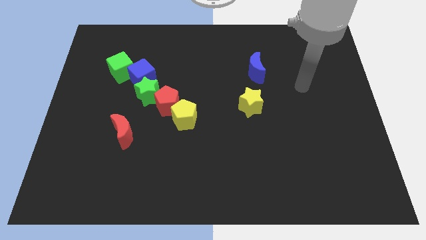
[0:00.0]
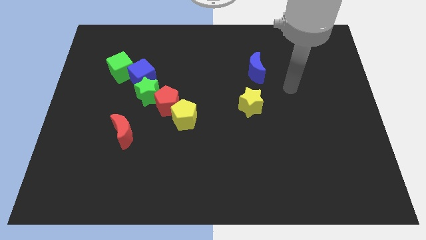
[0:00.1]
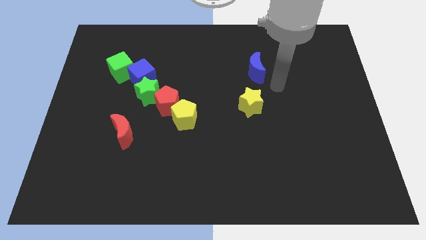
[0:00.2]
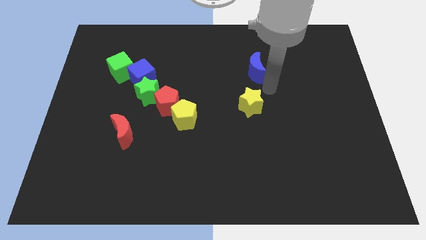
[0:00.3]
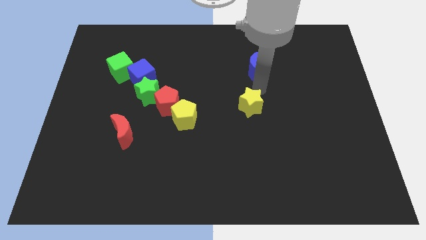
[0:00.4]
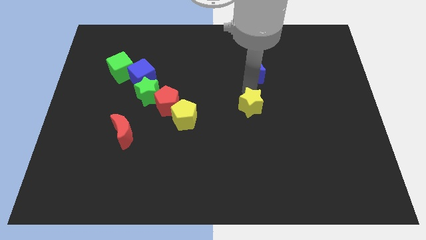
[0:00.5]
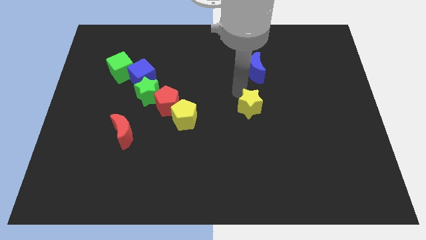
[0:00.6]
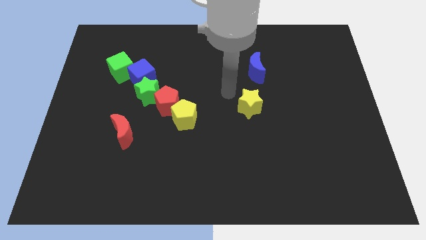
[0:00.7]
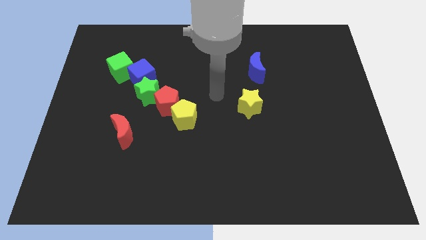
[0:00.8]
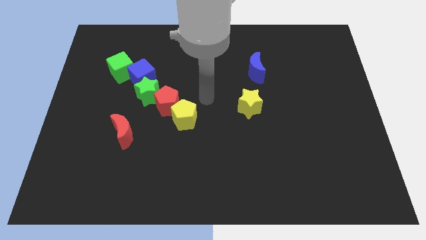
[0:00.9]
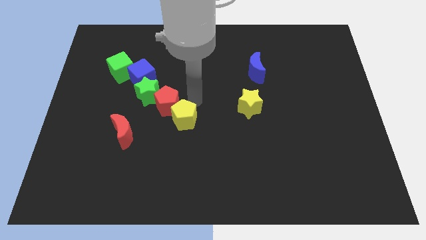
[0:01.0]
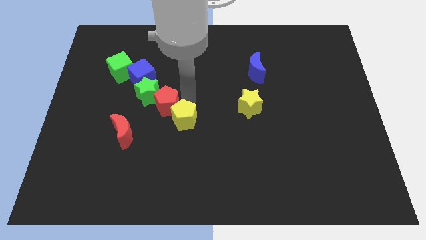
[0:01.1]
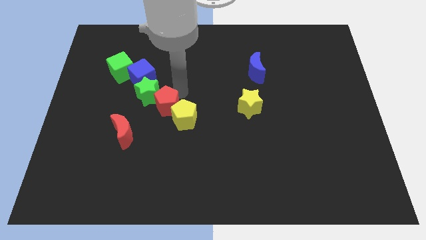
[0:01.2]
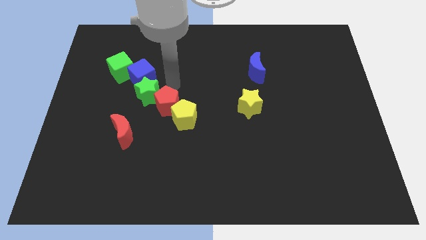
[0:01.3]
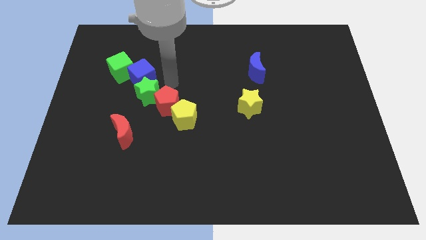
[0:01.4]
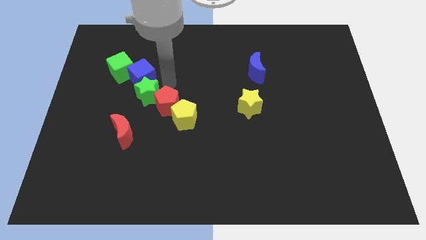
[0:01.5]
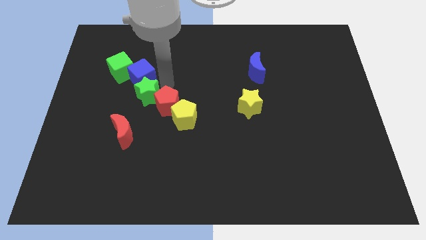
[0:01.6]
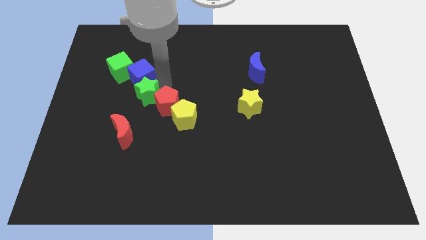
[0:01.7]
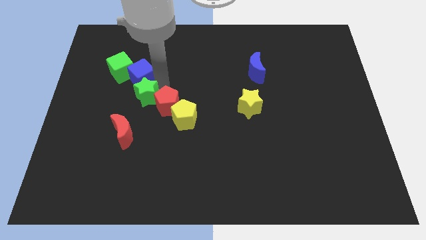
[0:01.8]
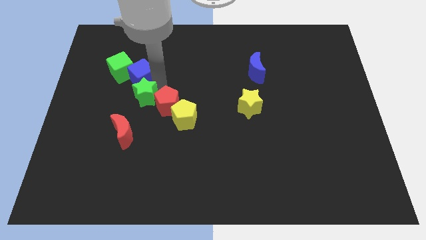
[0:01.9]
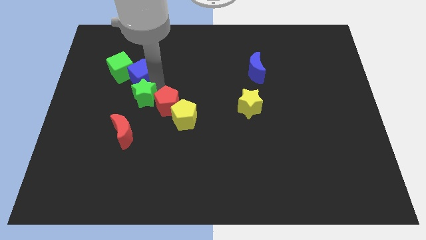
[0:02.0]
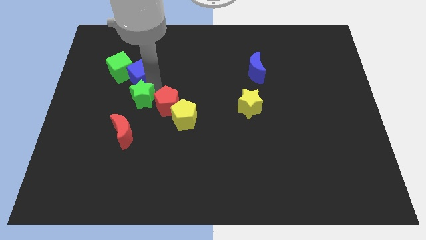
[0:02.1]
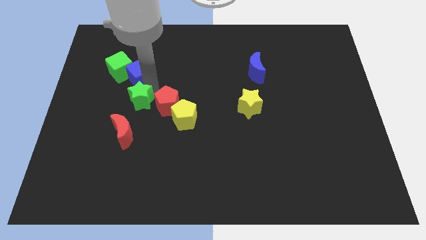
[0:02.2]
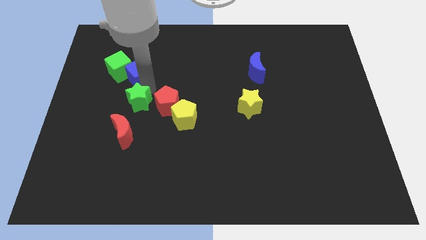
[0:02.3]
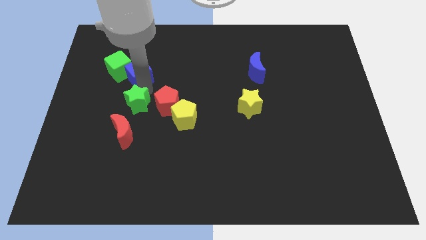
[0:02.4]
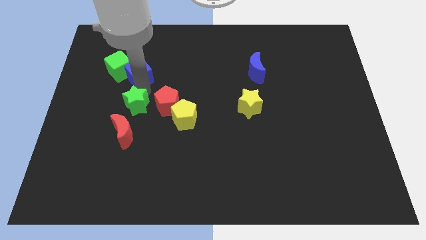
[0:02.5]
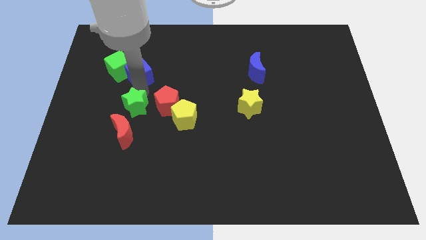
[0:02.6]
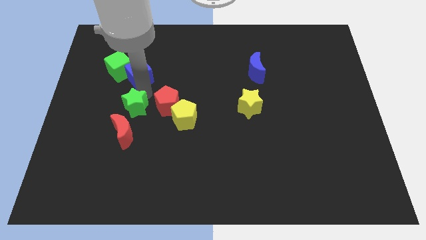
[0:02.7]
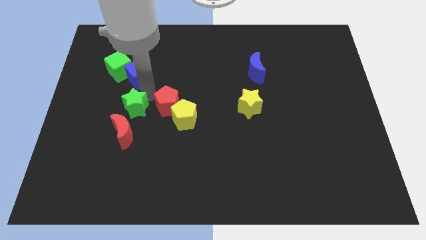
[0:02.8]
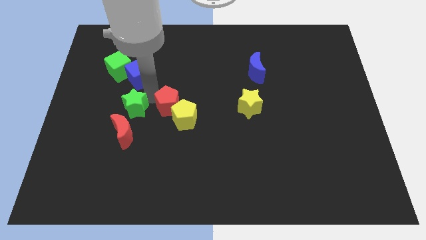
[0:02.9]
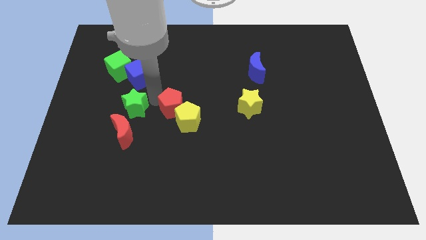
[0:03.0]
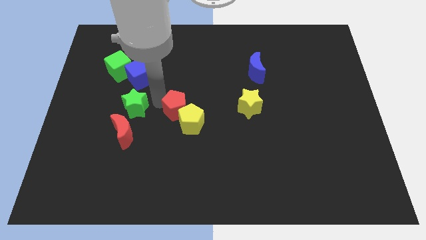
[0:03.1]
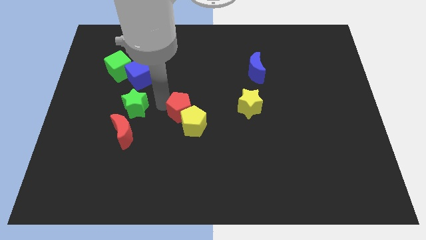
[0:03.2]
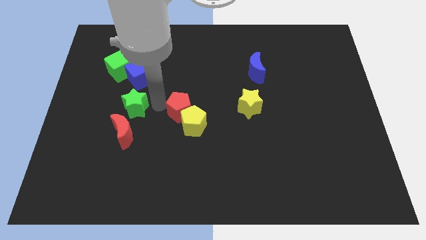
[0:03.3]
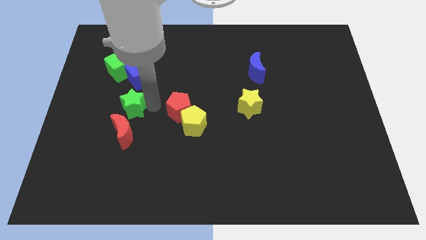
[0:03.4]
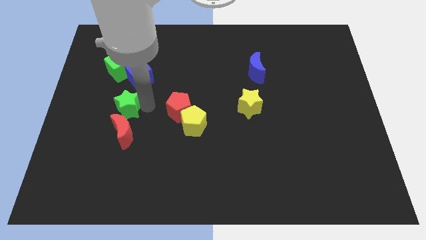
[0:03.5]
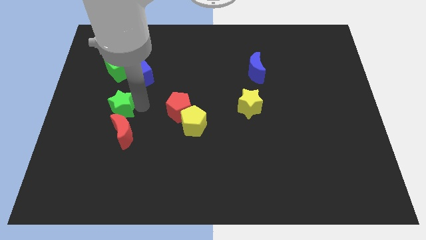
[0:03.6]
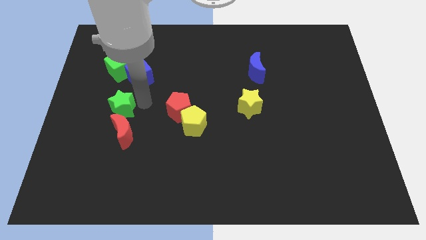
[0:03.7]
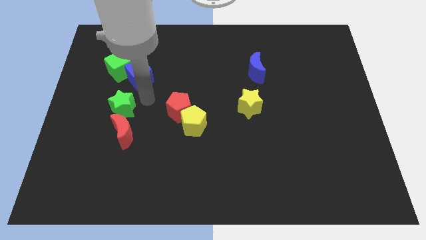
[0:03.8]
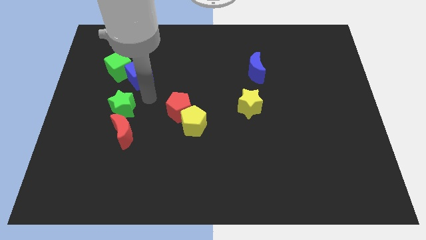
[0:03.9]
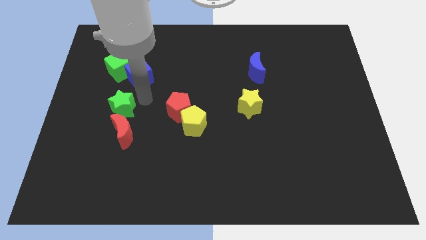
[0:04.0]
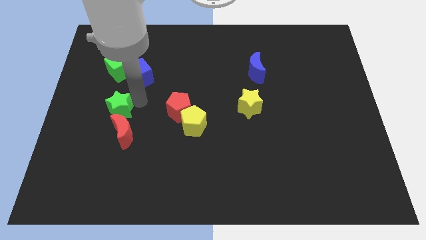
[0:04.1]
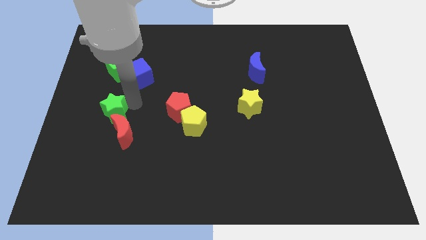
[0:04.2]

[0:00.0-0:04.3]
separate the green star from the blue cube and red pentagon

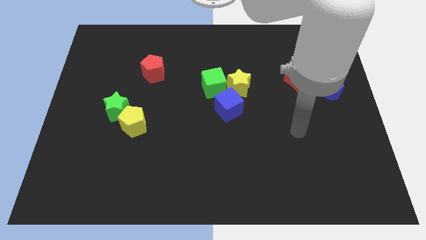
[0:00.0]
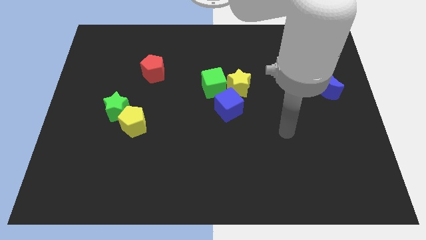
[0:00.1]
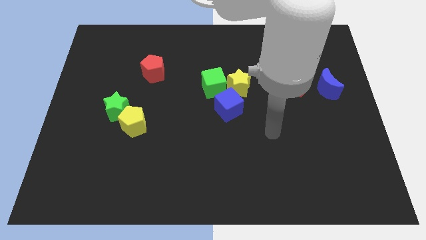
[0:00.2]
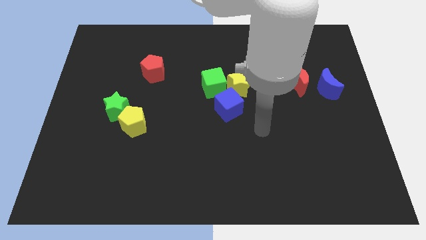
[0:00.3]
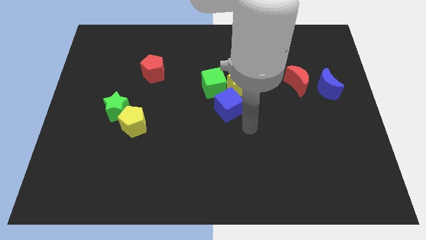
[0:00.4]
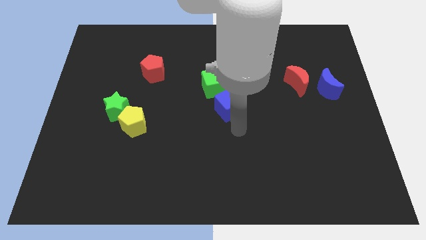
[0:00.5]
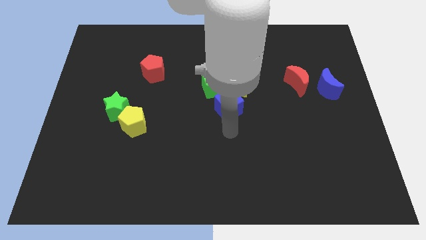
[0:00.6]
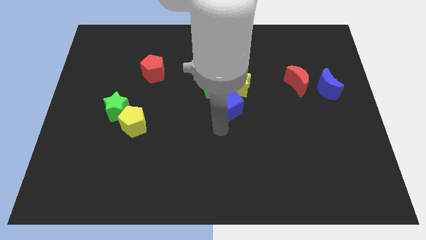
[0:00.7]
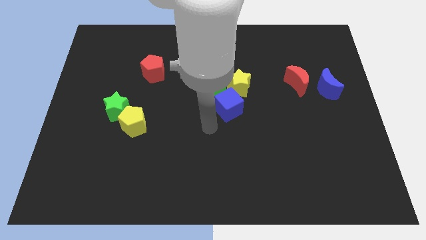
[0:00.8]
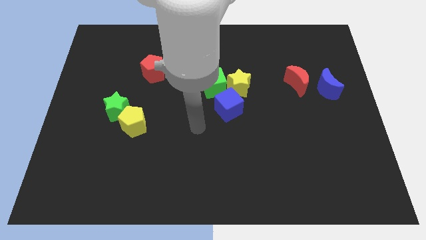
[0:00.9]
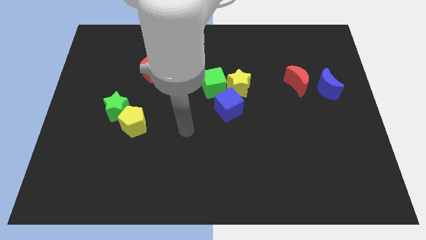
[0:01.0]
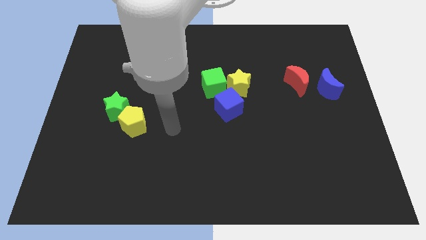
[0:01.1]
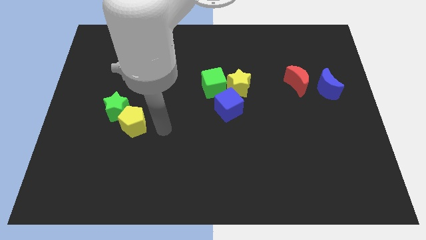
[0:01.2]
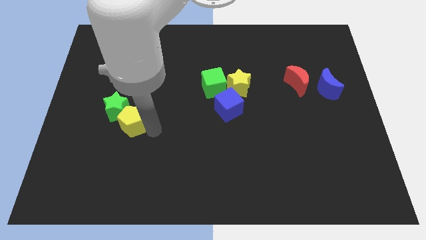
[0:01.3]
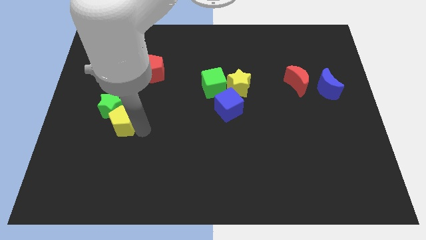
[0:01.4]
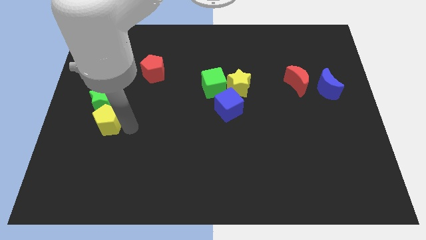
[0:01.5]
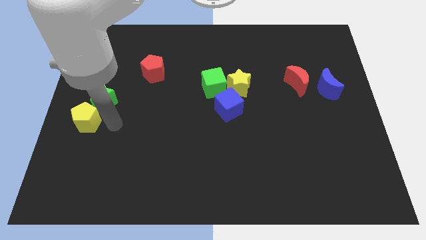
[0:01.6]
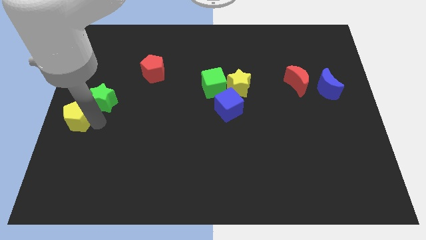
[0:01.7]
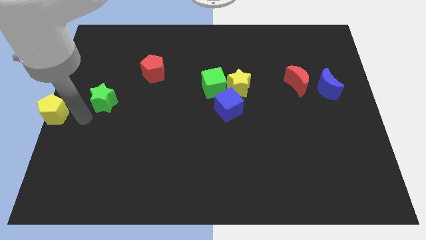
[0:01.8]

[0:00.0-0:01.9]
separate the green star from the yellow pentagon

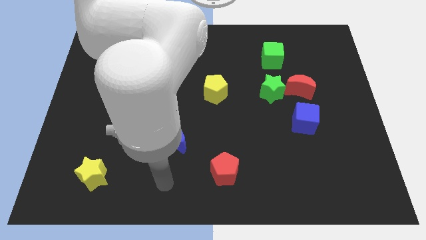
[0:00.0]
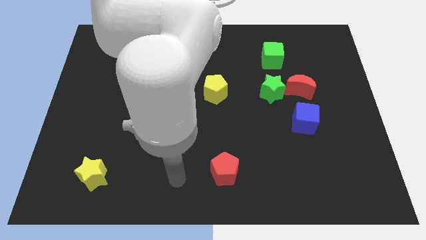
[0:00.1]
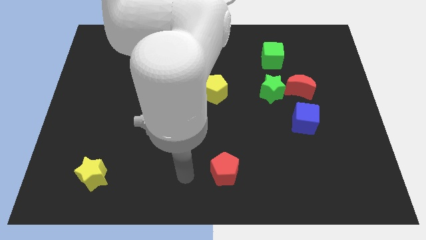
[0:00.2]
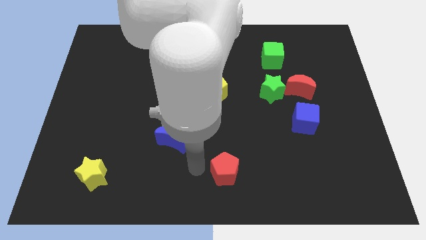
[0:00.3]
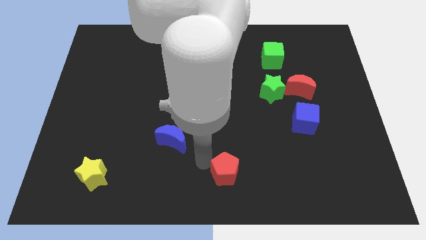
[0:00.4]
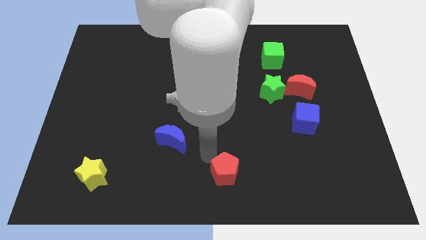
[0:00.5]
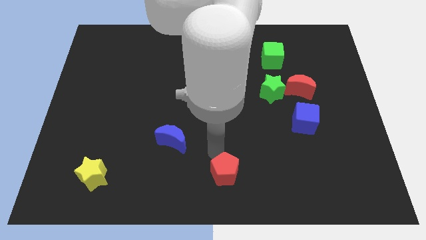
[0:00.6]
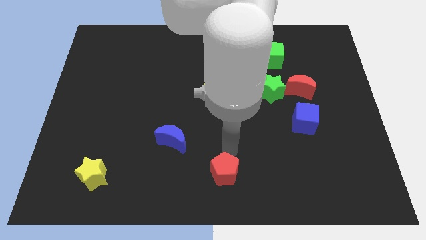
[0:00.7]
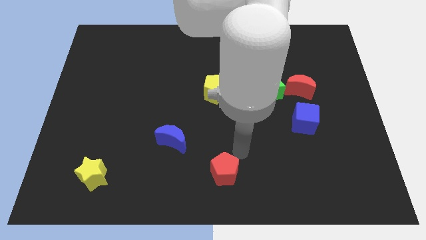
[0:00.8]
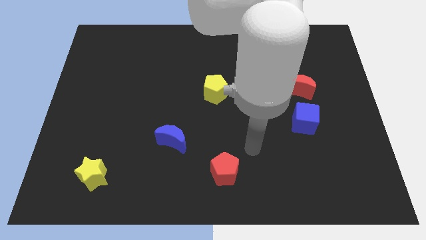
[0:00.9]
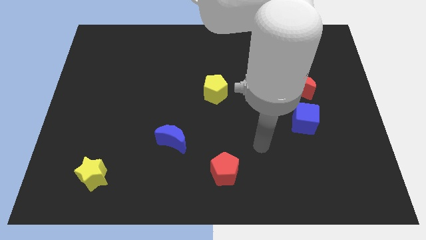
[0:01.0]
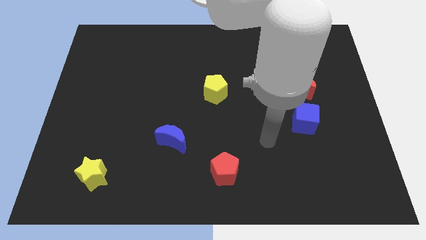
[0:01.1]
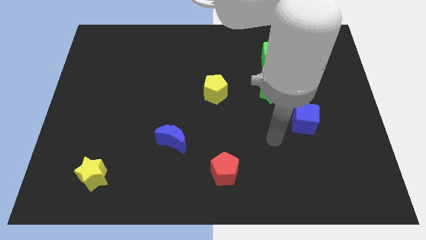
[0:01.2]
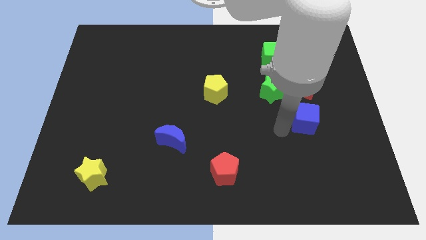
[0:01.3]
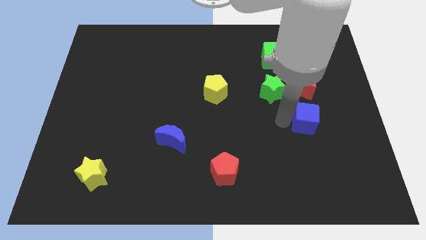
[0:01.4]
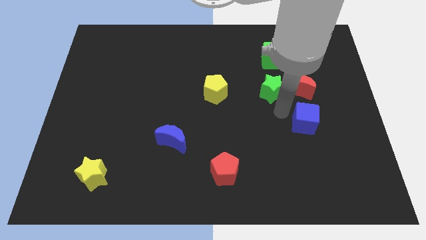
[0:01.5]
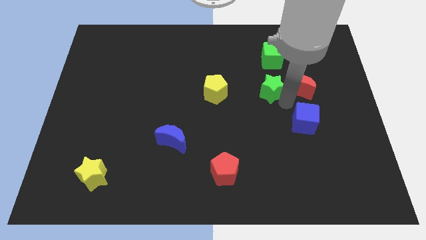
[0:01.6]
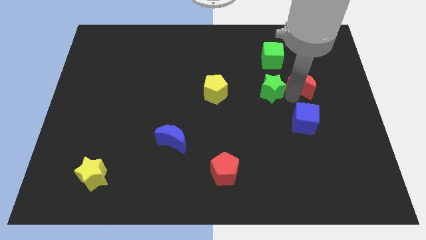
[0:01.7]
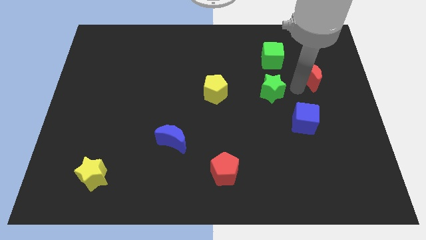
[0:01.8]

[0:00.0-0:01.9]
pull the green star apart from the red moon

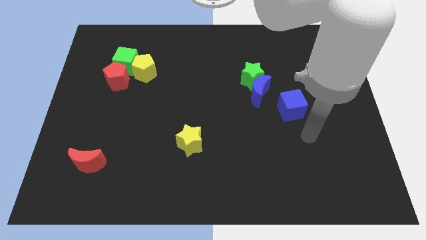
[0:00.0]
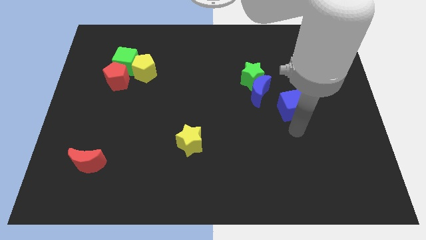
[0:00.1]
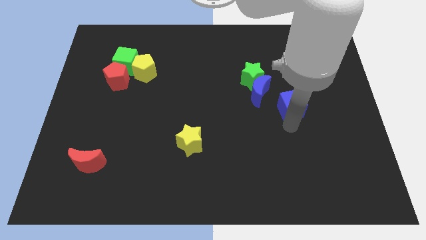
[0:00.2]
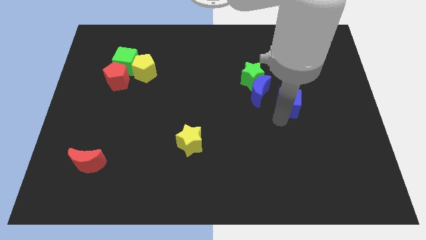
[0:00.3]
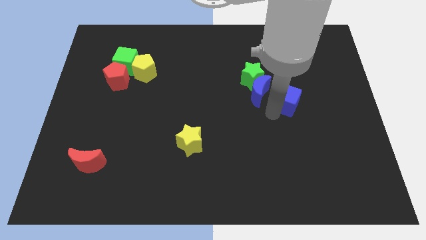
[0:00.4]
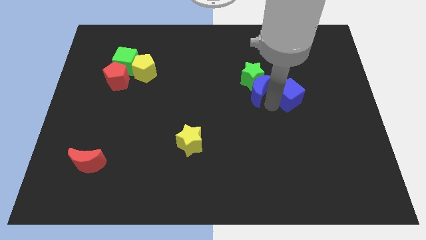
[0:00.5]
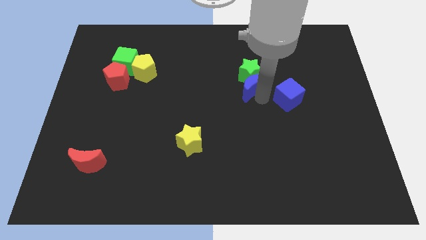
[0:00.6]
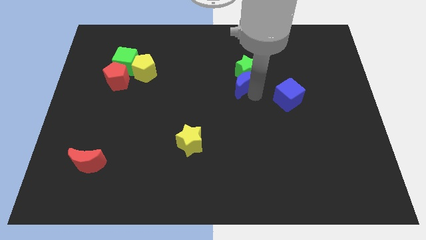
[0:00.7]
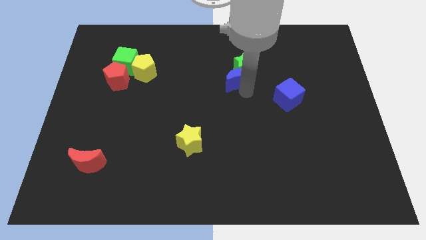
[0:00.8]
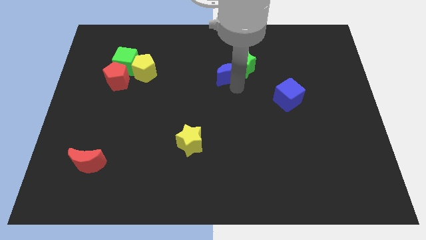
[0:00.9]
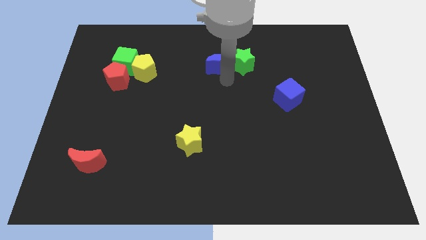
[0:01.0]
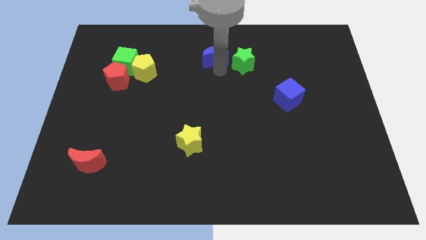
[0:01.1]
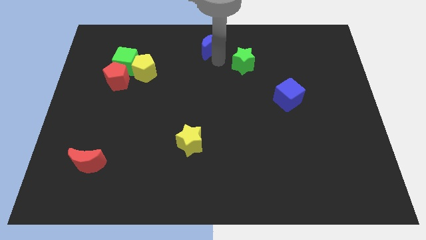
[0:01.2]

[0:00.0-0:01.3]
move the green star away from the blue moon
